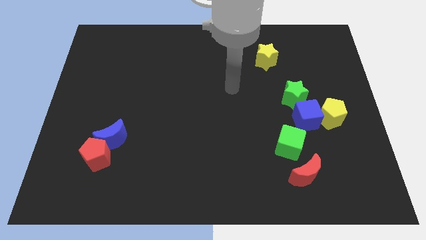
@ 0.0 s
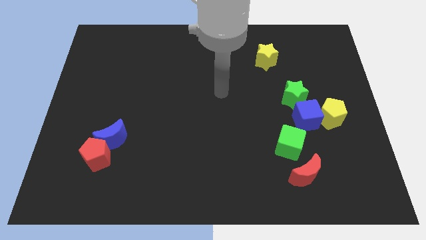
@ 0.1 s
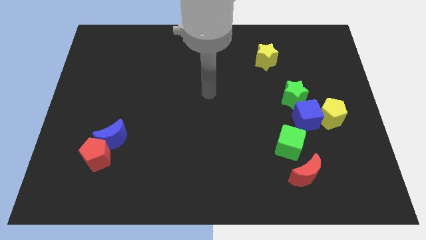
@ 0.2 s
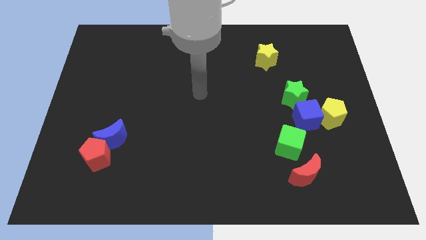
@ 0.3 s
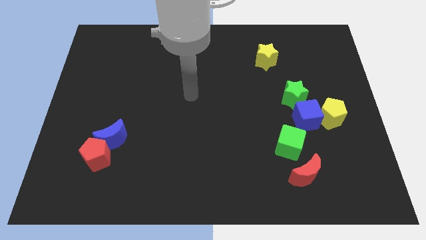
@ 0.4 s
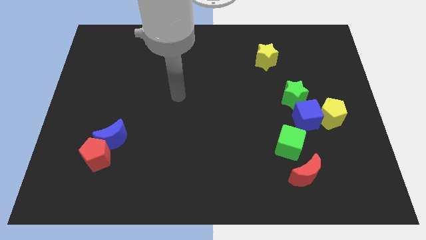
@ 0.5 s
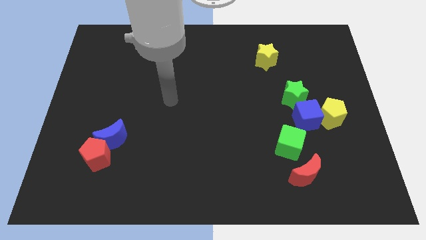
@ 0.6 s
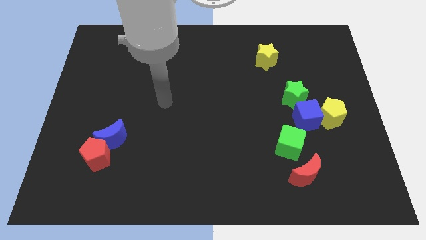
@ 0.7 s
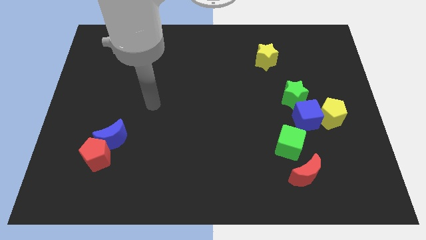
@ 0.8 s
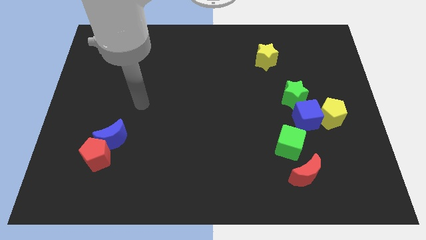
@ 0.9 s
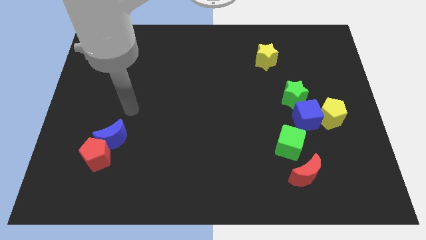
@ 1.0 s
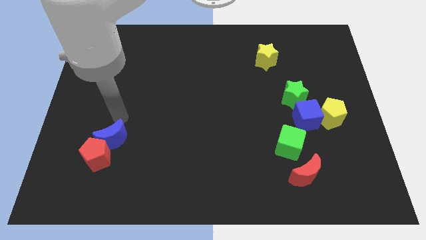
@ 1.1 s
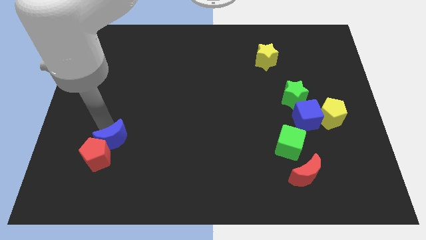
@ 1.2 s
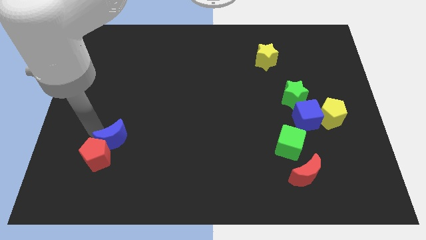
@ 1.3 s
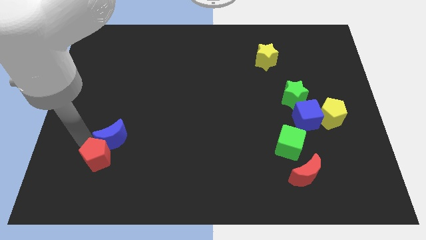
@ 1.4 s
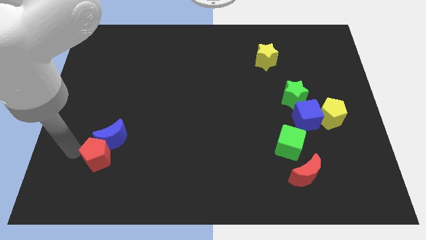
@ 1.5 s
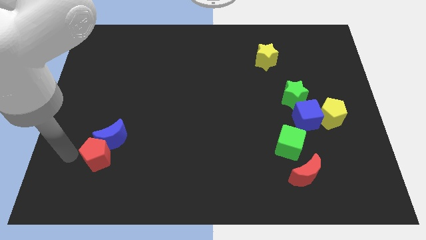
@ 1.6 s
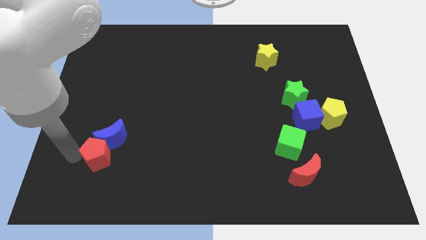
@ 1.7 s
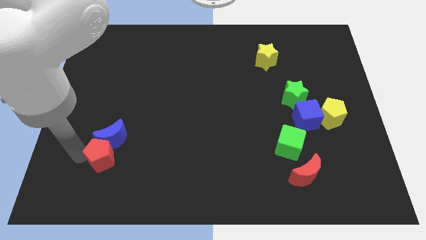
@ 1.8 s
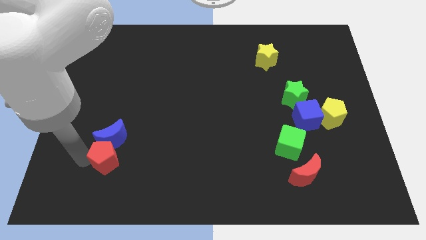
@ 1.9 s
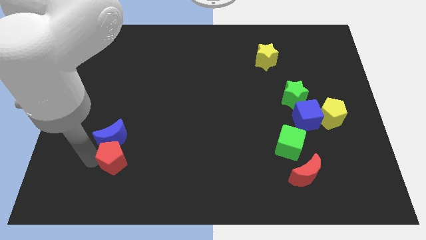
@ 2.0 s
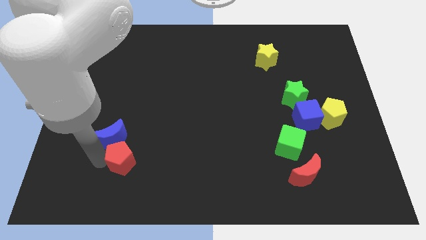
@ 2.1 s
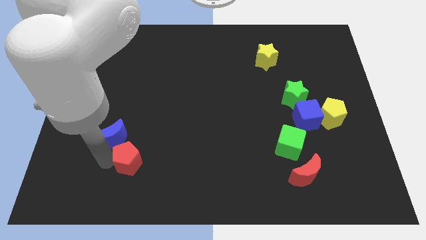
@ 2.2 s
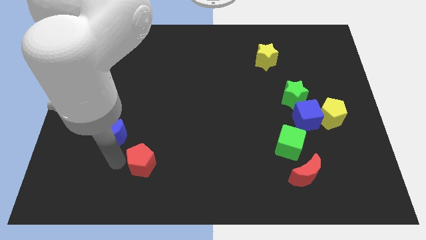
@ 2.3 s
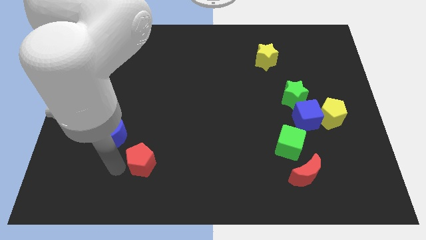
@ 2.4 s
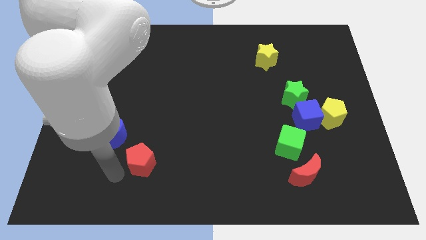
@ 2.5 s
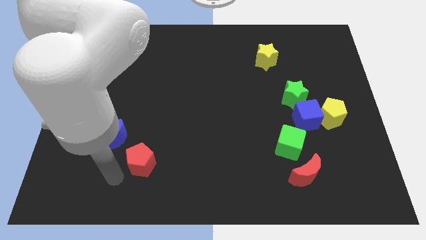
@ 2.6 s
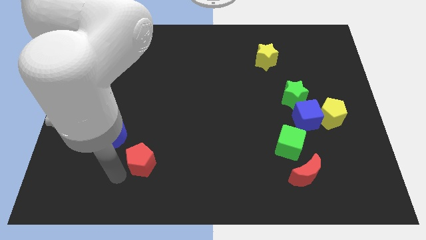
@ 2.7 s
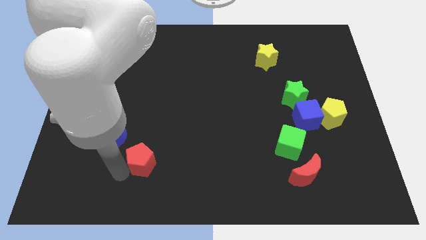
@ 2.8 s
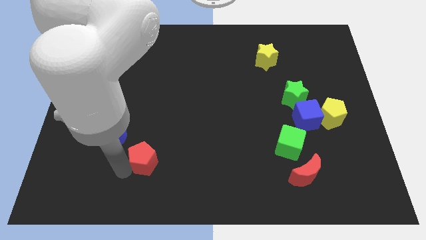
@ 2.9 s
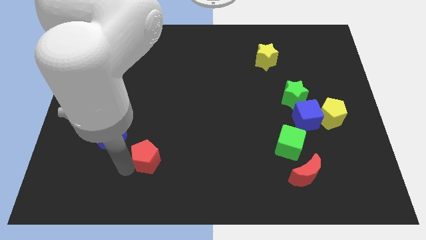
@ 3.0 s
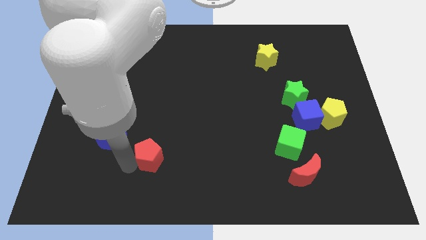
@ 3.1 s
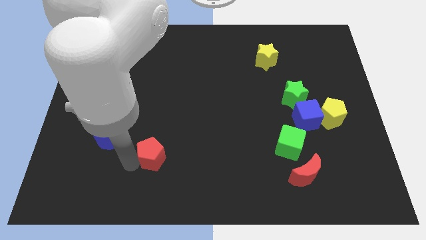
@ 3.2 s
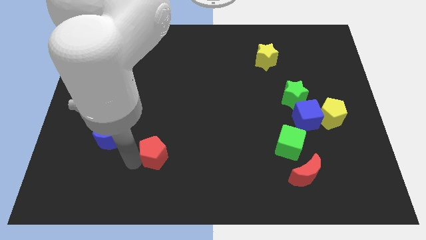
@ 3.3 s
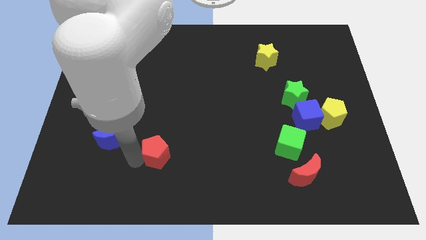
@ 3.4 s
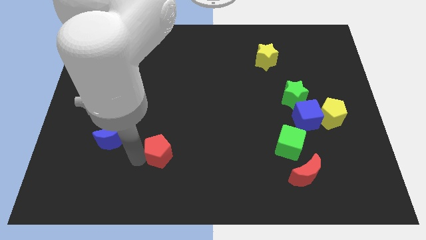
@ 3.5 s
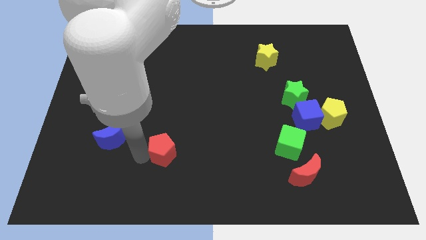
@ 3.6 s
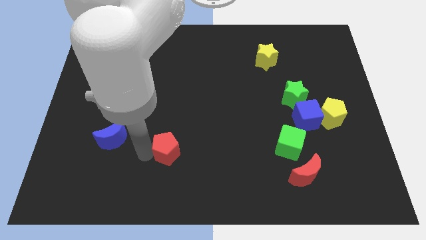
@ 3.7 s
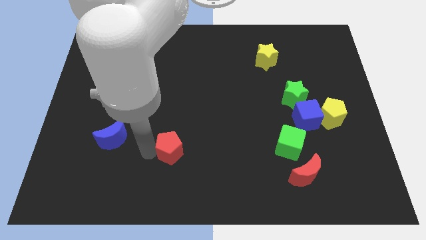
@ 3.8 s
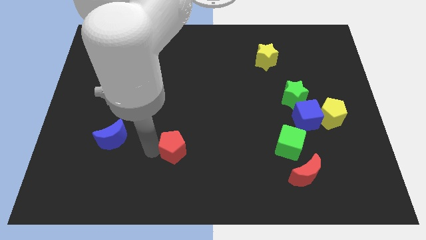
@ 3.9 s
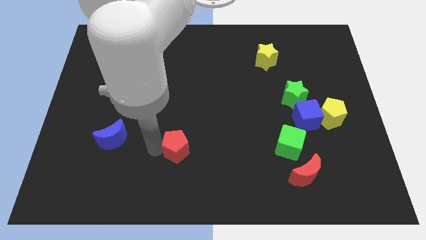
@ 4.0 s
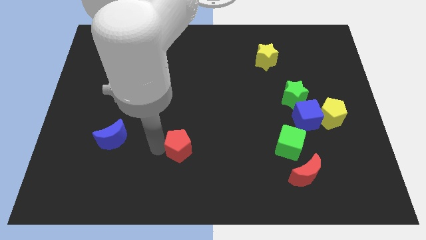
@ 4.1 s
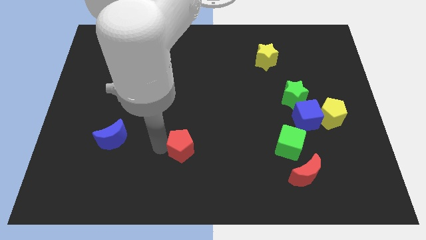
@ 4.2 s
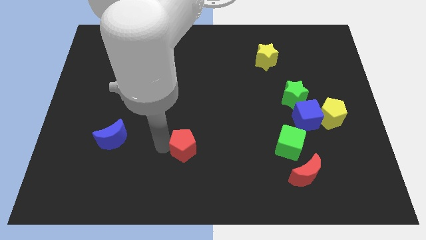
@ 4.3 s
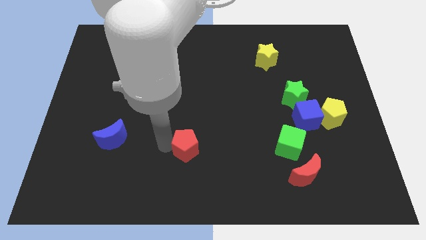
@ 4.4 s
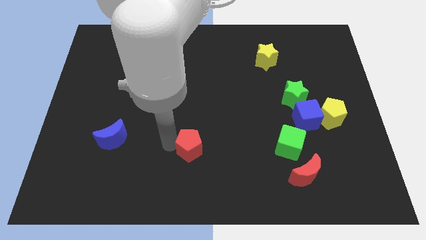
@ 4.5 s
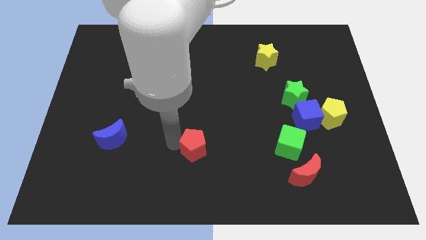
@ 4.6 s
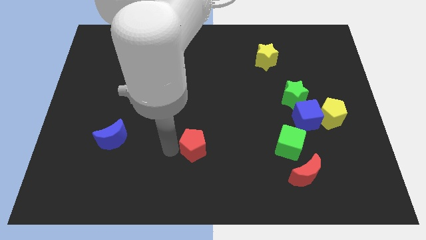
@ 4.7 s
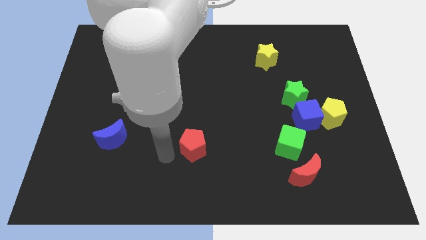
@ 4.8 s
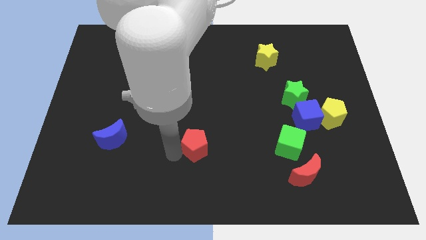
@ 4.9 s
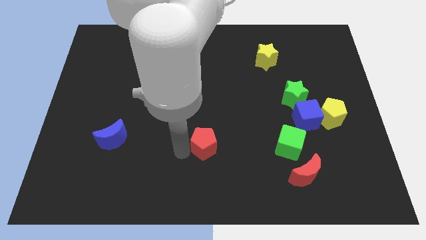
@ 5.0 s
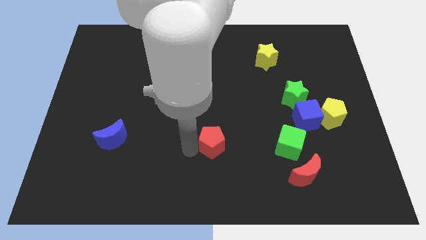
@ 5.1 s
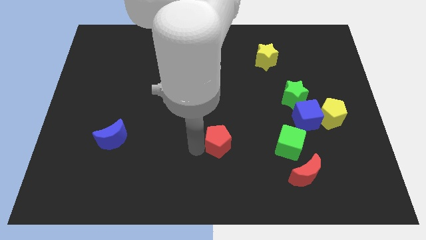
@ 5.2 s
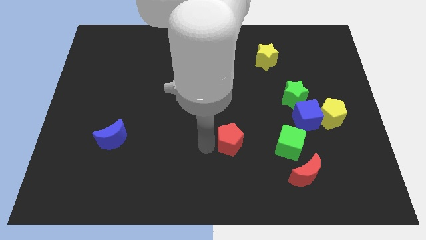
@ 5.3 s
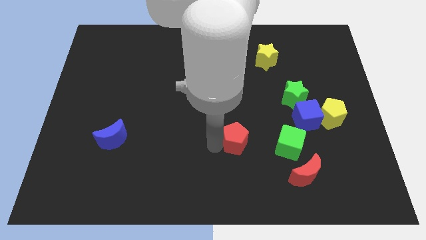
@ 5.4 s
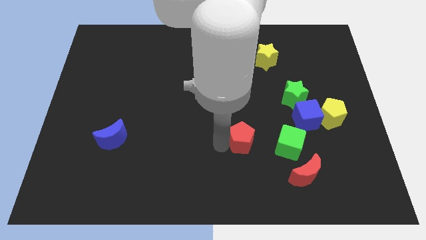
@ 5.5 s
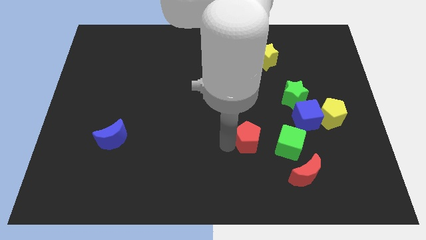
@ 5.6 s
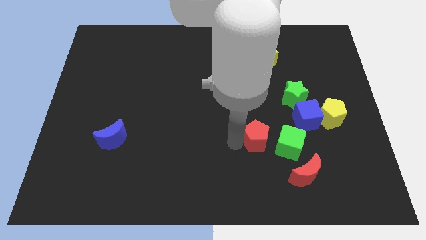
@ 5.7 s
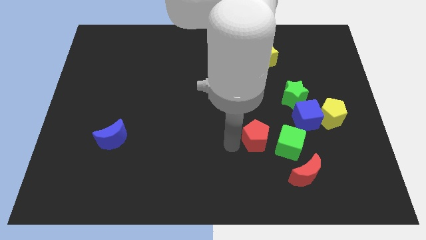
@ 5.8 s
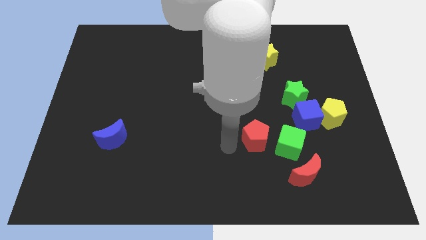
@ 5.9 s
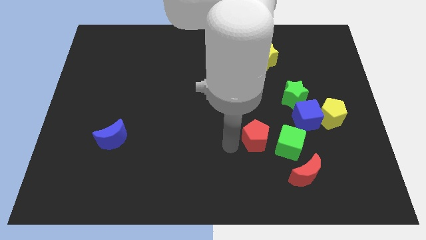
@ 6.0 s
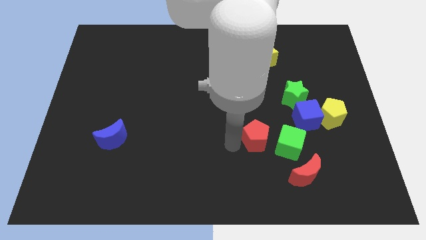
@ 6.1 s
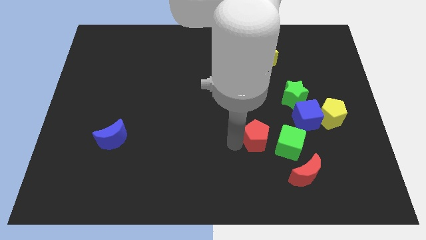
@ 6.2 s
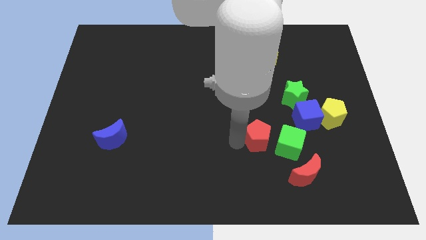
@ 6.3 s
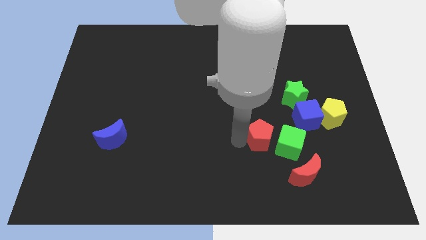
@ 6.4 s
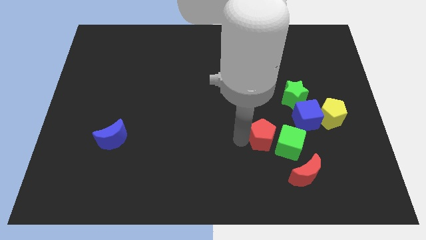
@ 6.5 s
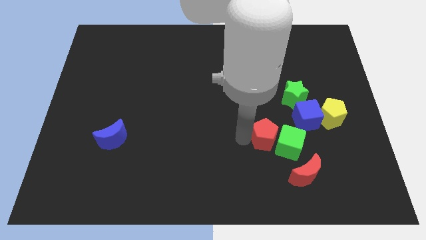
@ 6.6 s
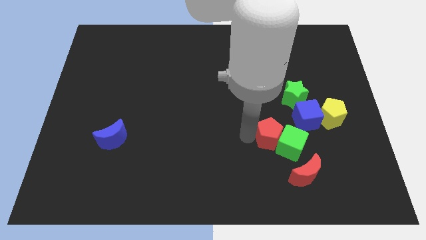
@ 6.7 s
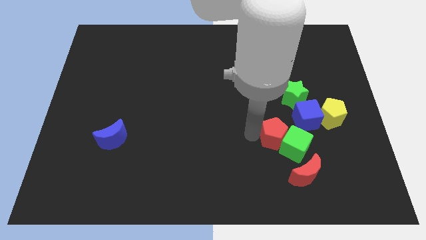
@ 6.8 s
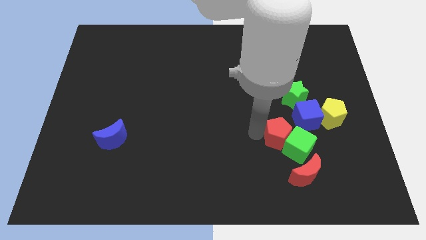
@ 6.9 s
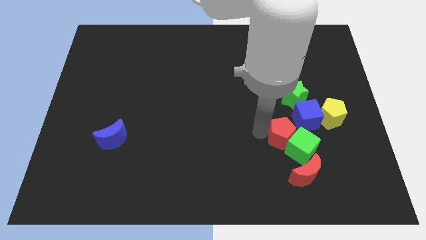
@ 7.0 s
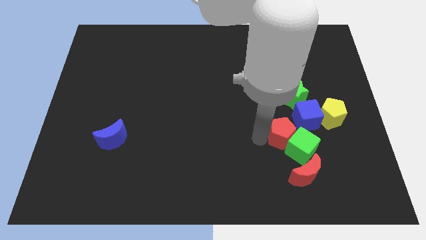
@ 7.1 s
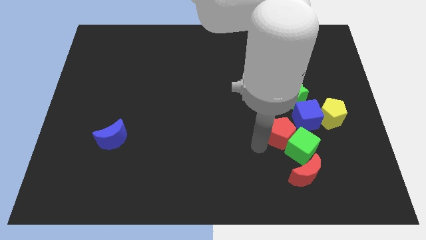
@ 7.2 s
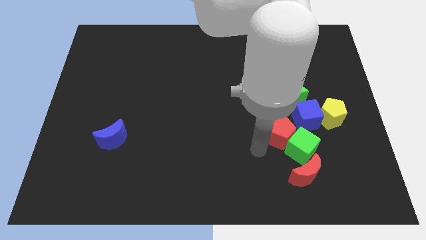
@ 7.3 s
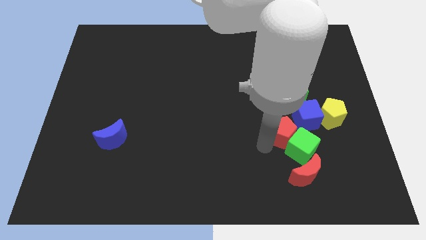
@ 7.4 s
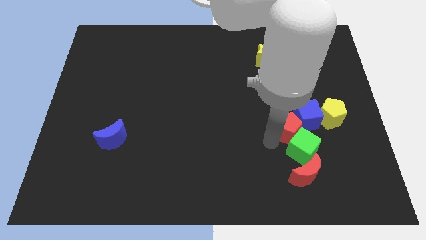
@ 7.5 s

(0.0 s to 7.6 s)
put the red pentagon close to the blue cube
